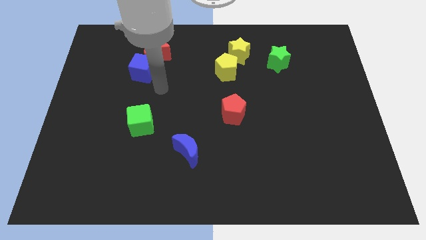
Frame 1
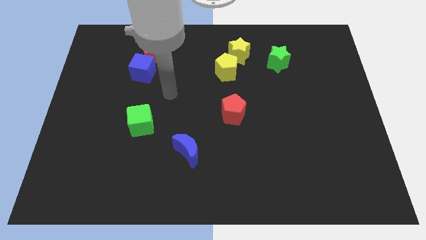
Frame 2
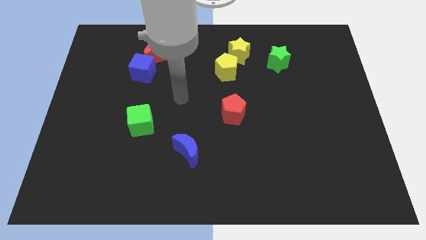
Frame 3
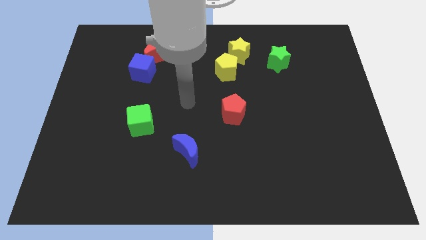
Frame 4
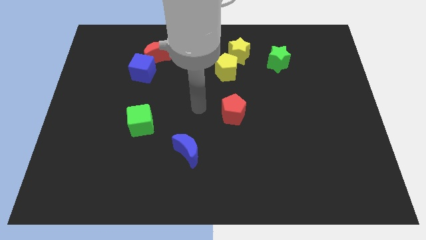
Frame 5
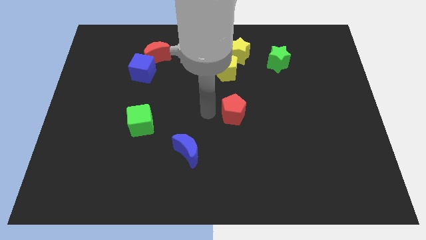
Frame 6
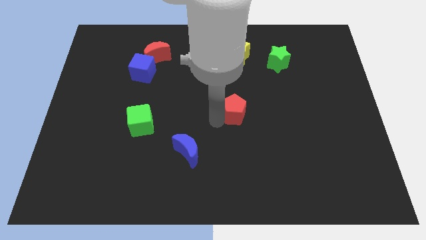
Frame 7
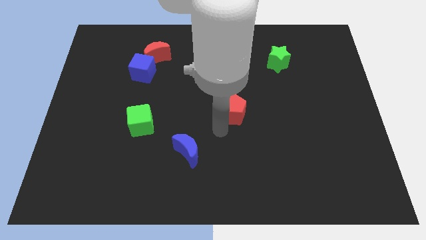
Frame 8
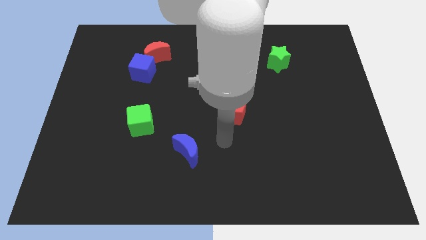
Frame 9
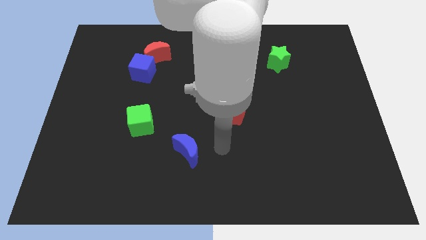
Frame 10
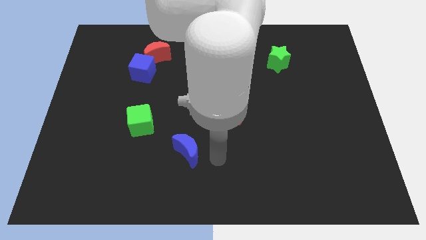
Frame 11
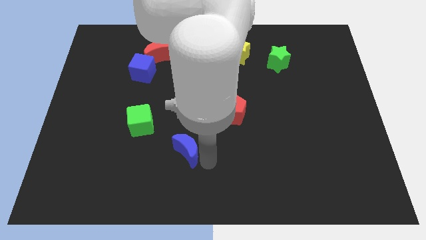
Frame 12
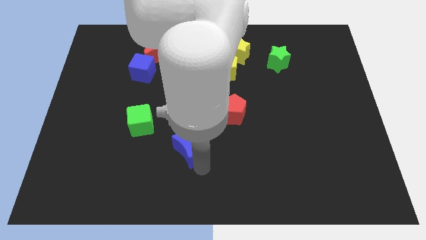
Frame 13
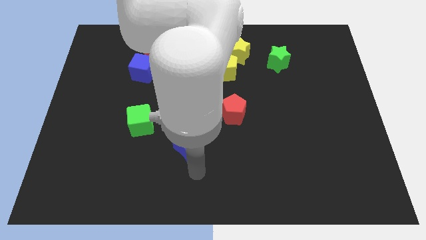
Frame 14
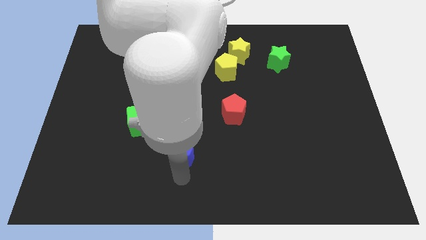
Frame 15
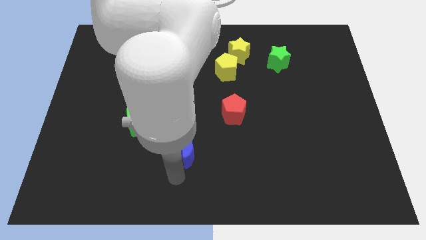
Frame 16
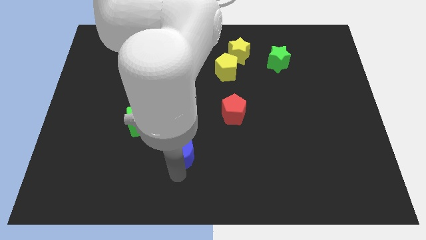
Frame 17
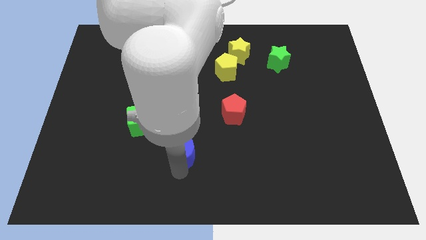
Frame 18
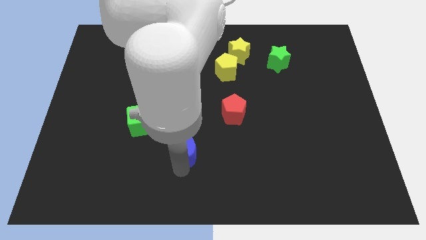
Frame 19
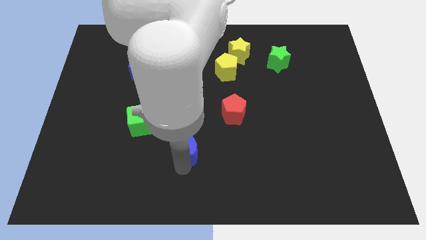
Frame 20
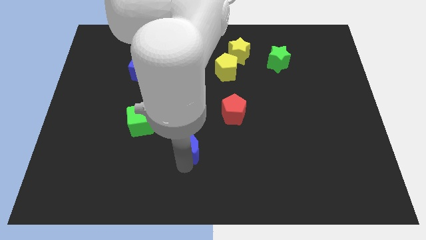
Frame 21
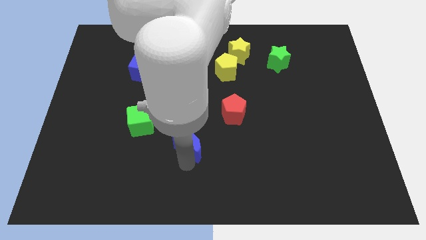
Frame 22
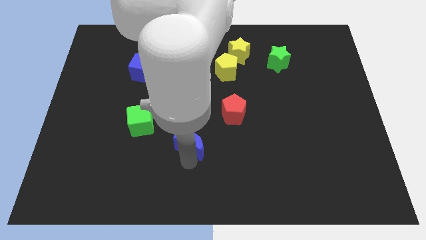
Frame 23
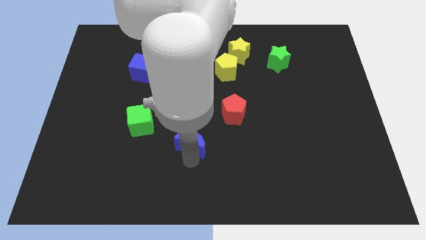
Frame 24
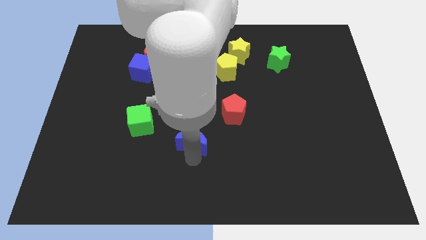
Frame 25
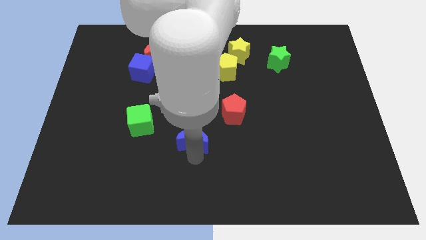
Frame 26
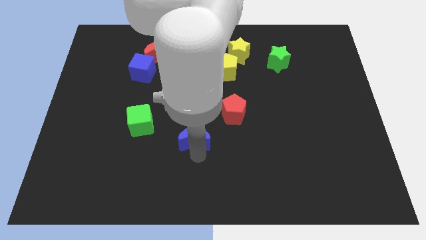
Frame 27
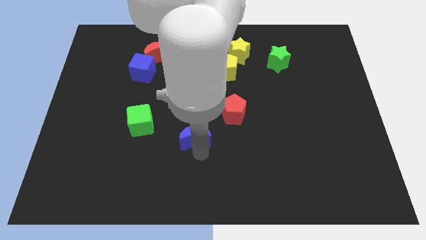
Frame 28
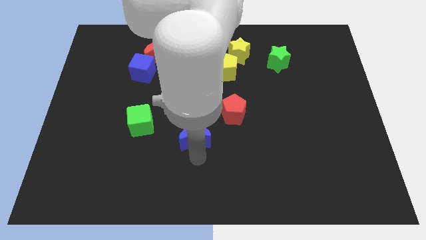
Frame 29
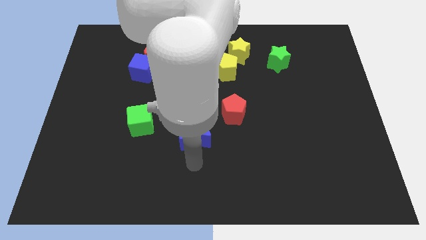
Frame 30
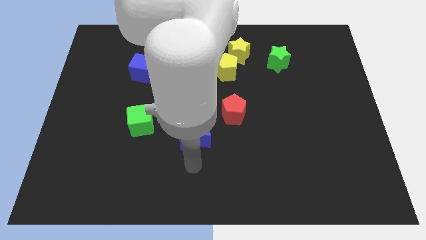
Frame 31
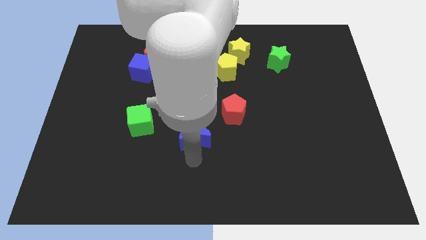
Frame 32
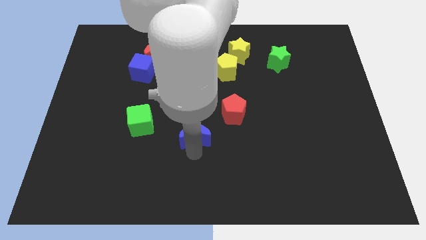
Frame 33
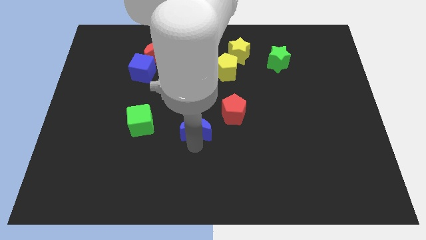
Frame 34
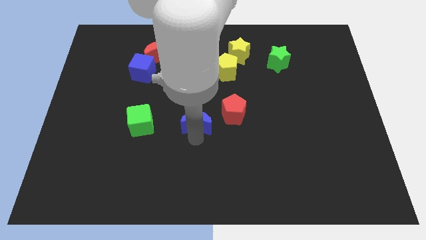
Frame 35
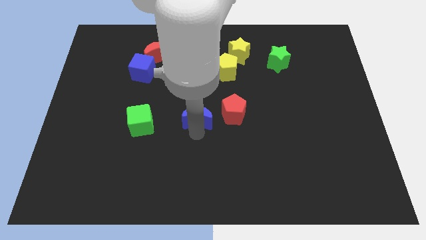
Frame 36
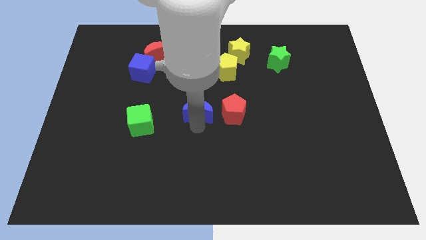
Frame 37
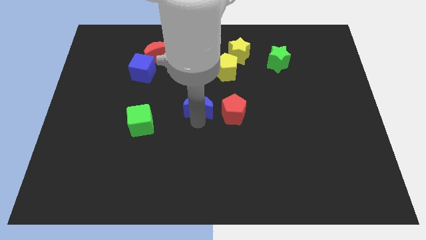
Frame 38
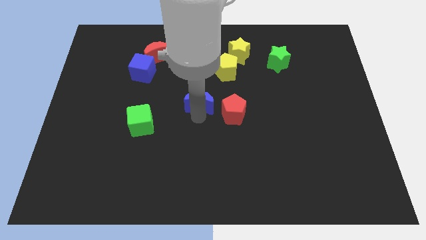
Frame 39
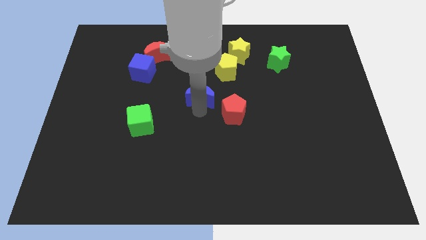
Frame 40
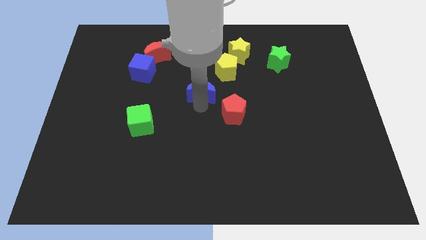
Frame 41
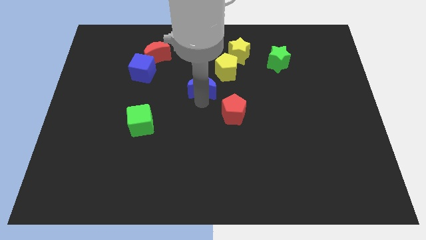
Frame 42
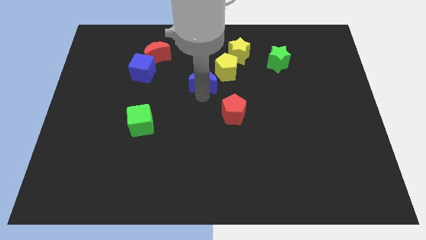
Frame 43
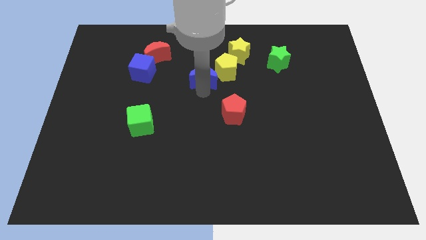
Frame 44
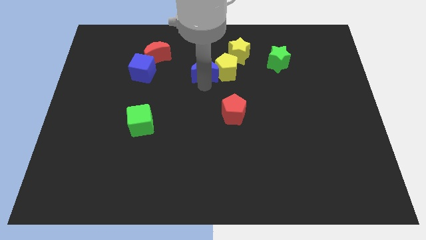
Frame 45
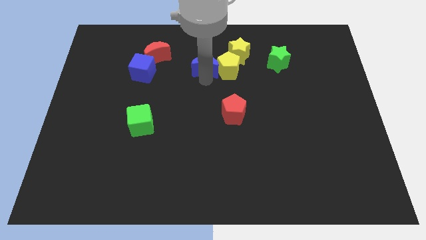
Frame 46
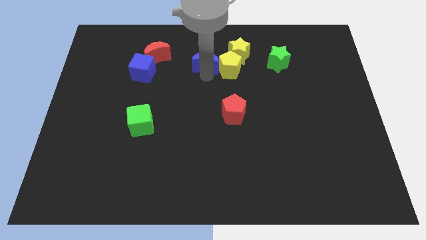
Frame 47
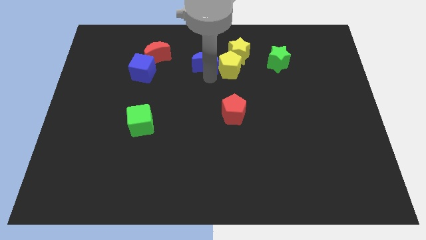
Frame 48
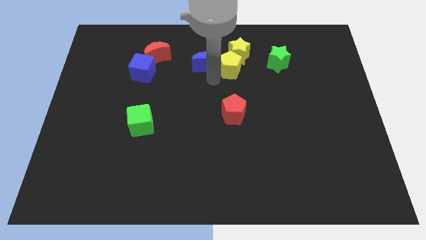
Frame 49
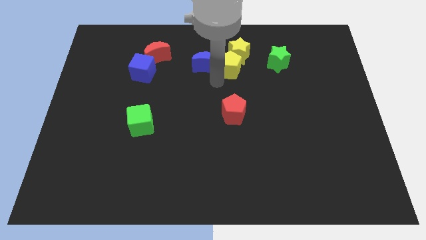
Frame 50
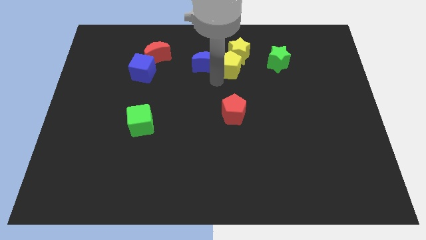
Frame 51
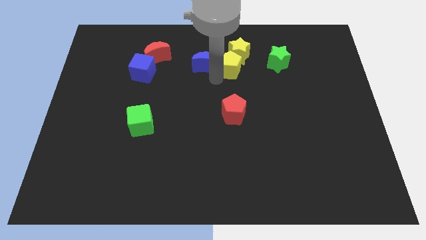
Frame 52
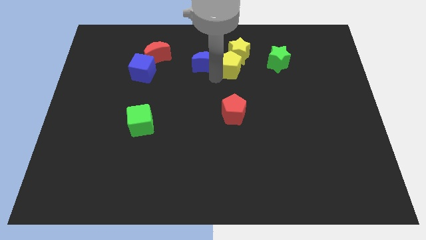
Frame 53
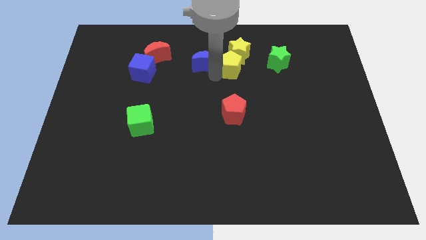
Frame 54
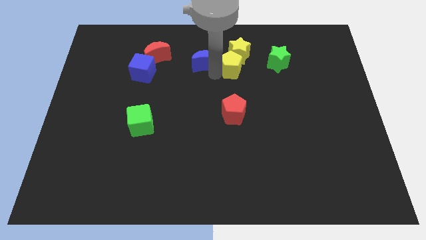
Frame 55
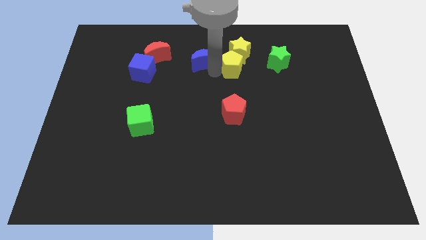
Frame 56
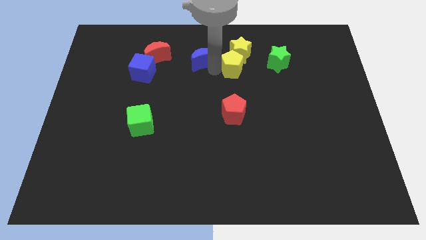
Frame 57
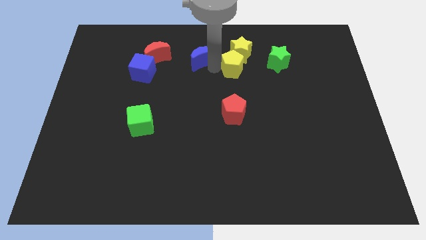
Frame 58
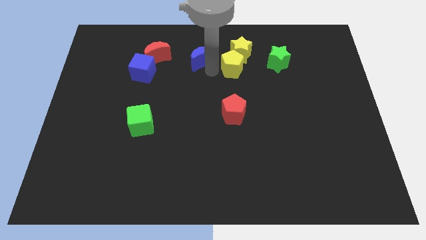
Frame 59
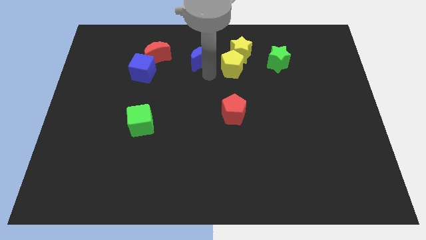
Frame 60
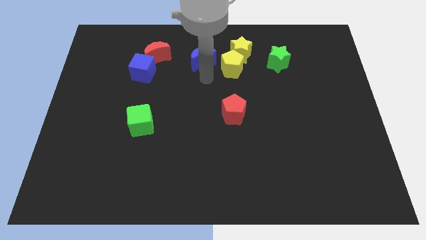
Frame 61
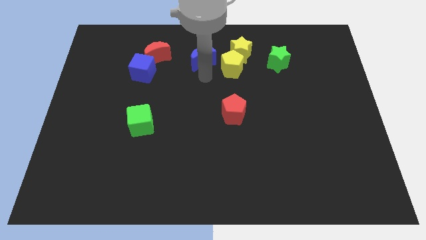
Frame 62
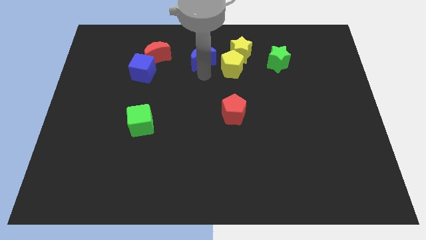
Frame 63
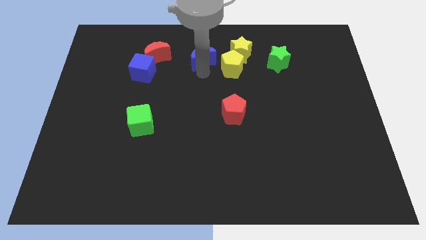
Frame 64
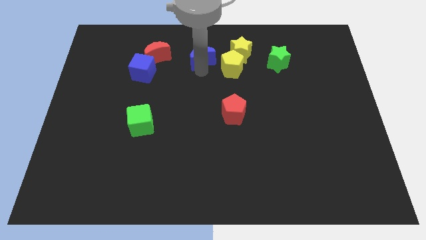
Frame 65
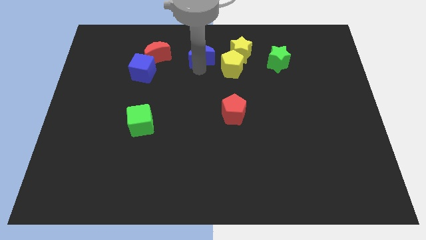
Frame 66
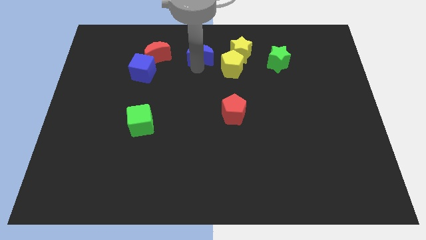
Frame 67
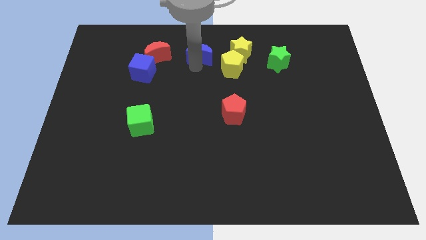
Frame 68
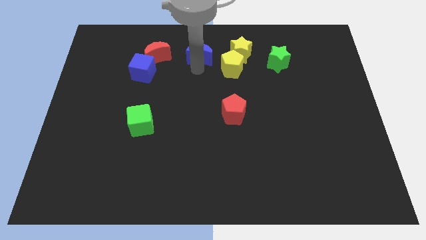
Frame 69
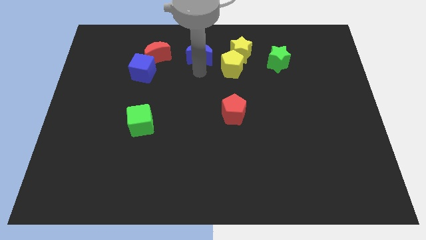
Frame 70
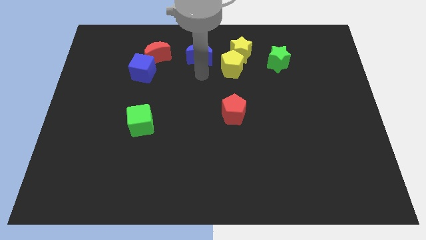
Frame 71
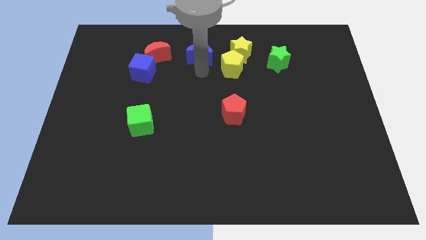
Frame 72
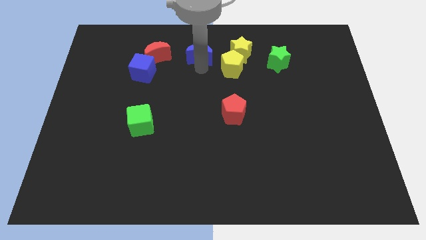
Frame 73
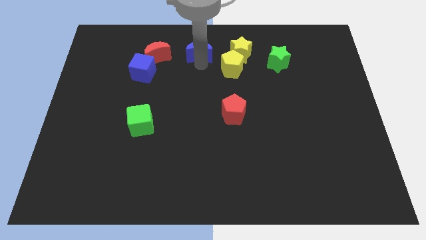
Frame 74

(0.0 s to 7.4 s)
put the blue moon to the top side
